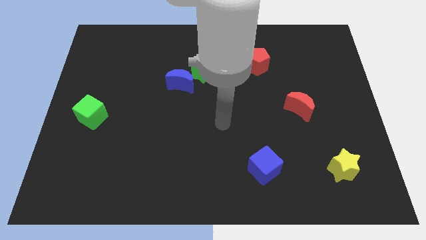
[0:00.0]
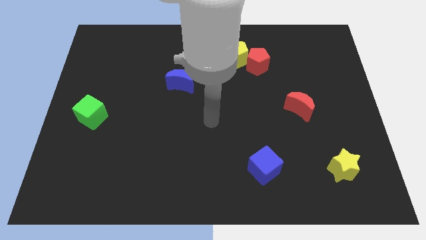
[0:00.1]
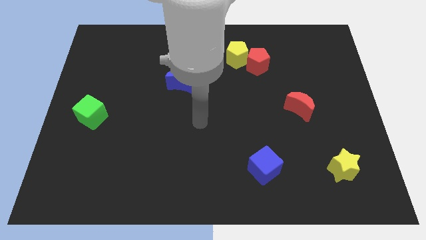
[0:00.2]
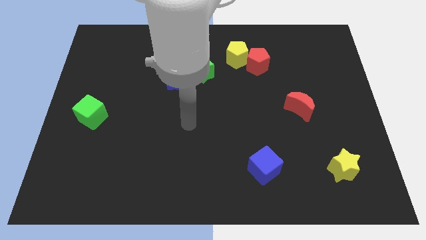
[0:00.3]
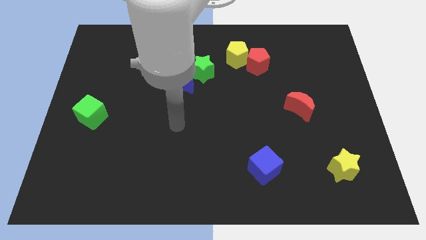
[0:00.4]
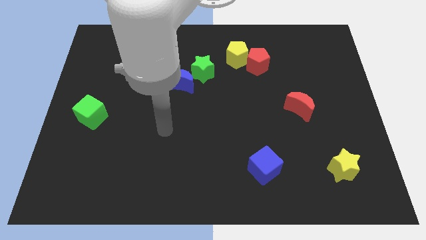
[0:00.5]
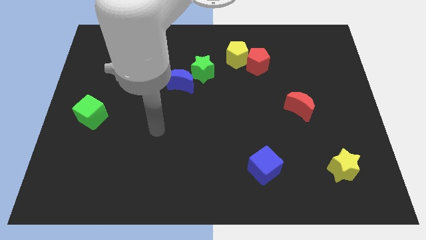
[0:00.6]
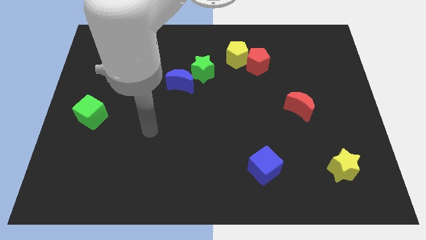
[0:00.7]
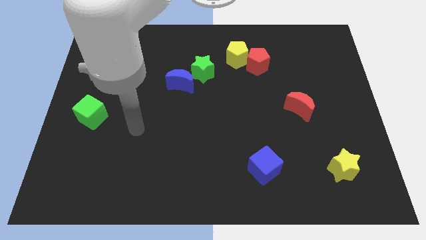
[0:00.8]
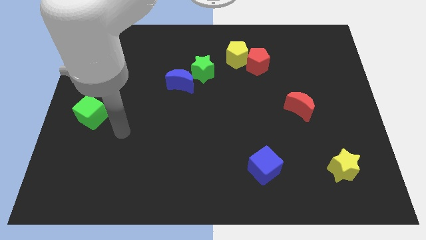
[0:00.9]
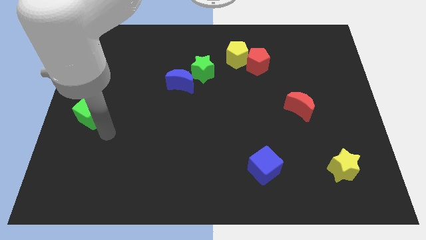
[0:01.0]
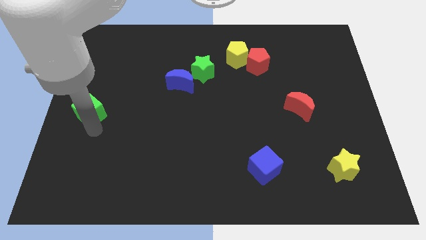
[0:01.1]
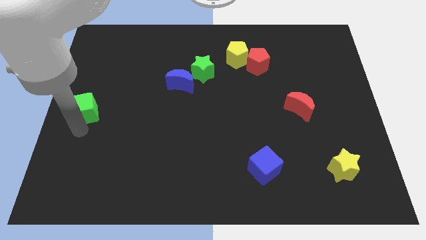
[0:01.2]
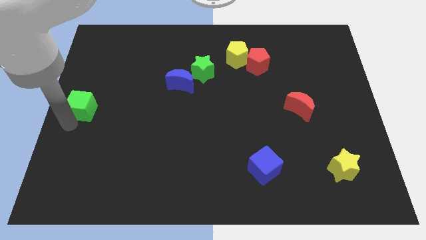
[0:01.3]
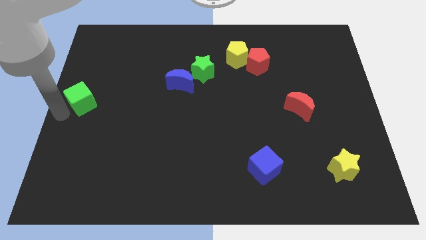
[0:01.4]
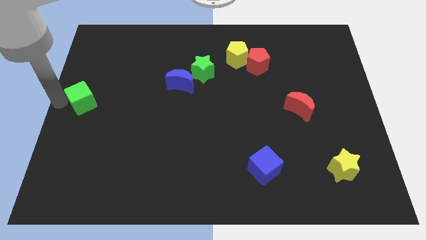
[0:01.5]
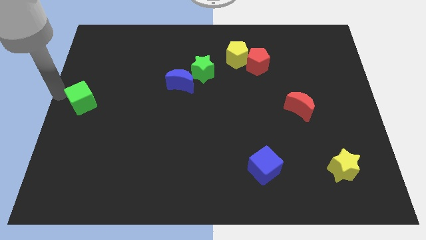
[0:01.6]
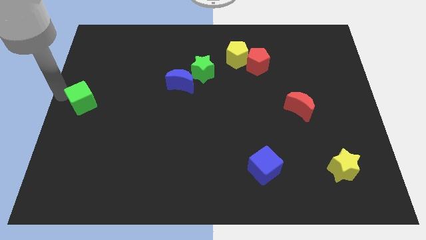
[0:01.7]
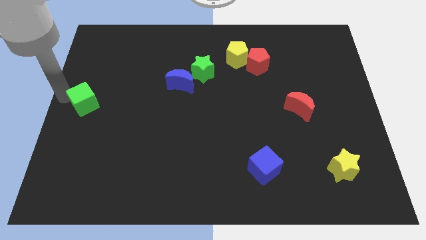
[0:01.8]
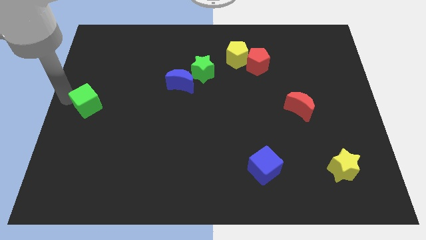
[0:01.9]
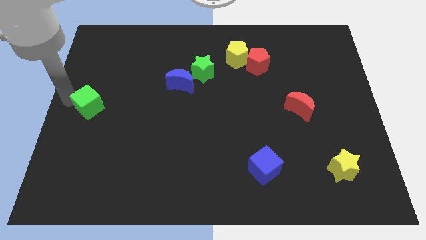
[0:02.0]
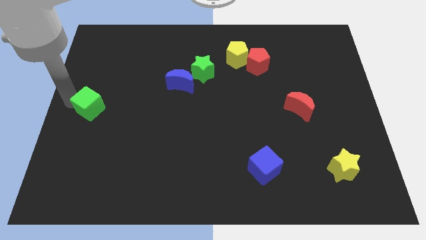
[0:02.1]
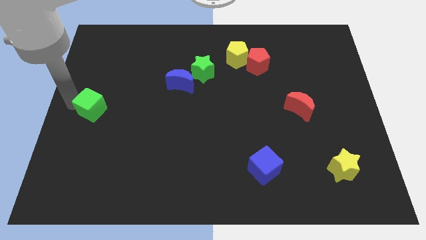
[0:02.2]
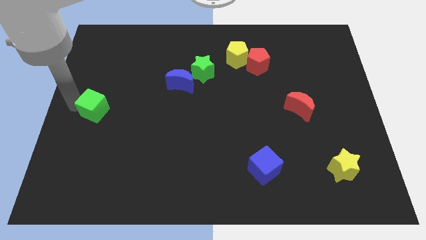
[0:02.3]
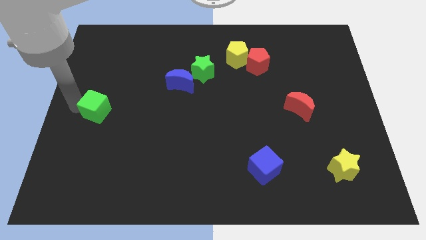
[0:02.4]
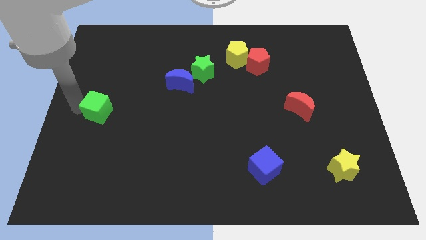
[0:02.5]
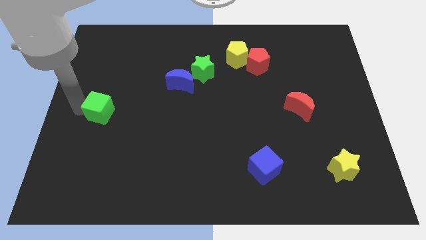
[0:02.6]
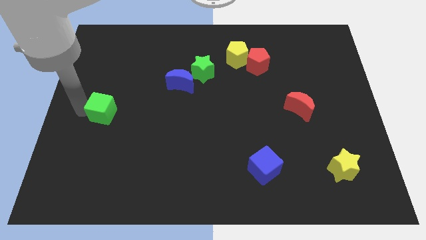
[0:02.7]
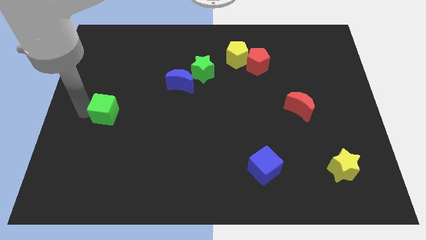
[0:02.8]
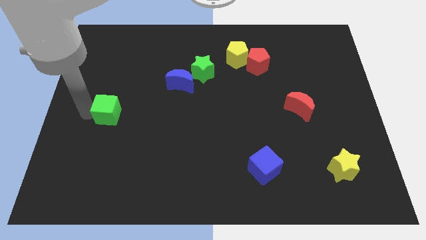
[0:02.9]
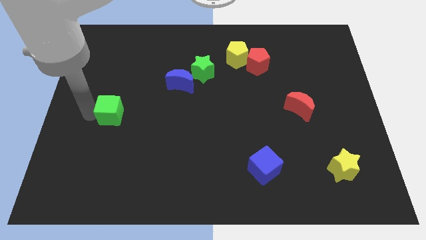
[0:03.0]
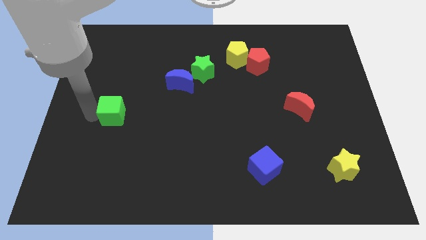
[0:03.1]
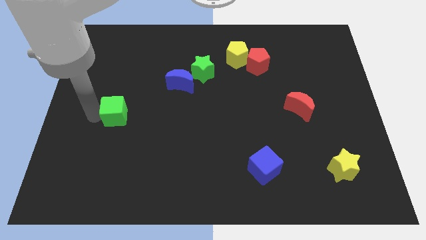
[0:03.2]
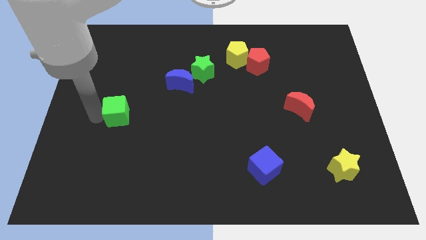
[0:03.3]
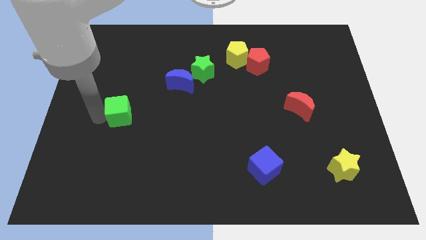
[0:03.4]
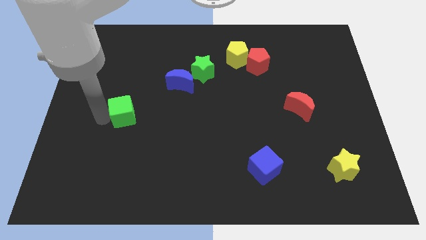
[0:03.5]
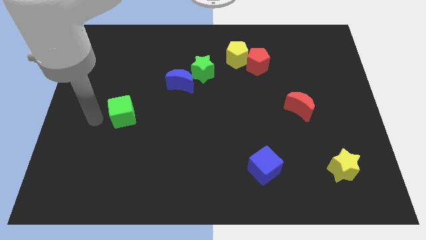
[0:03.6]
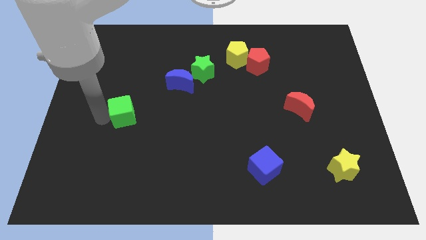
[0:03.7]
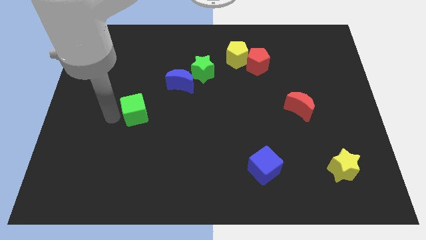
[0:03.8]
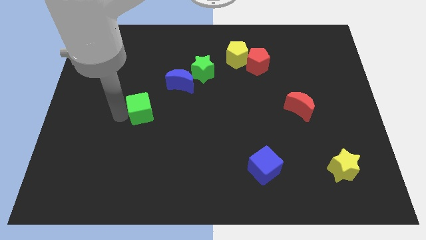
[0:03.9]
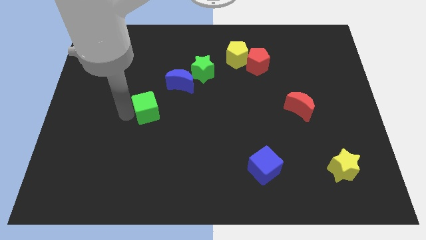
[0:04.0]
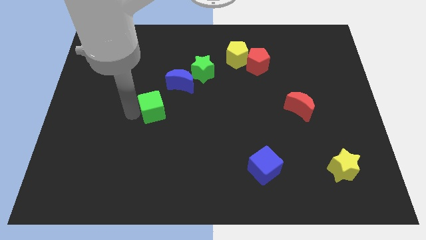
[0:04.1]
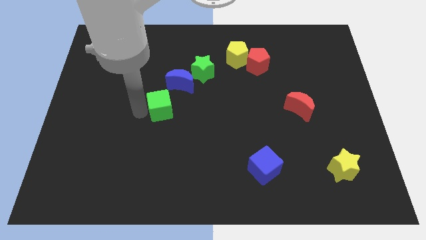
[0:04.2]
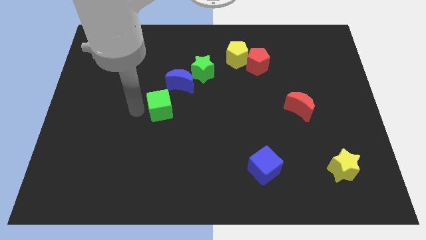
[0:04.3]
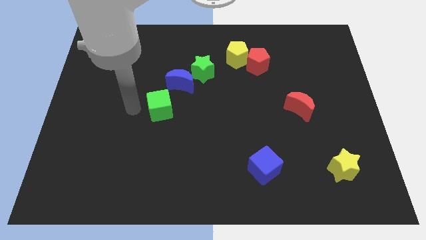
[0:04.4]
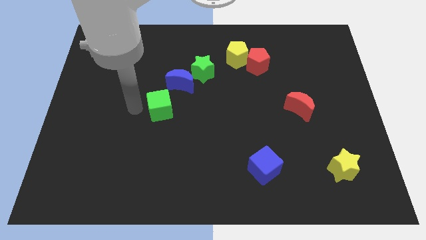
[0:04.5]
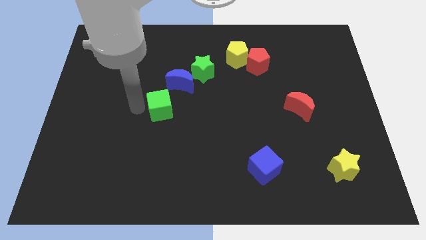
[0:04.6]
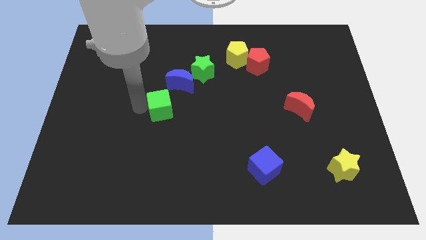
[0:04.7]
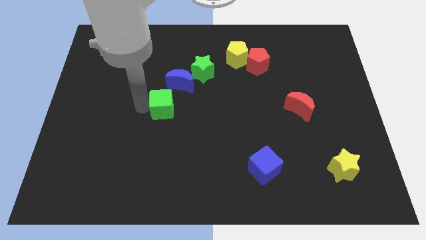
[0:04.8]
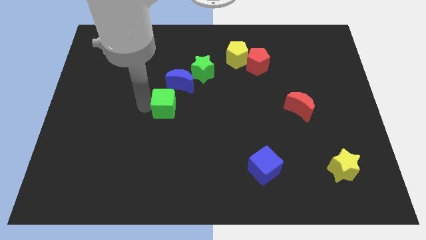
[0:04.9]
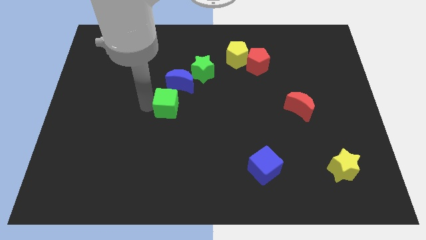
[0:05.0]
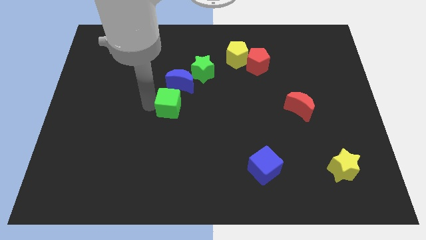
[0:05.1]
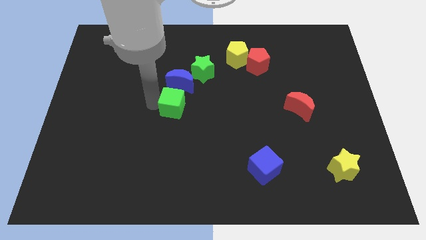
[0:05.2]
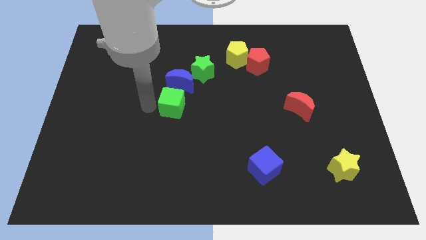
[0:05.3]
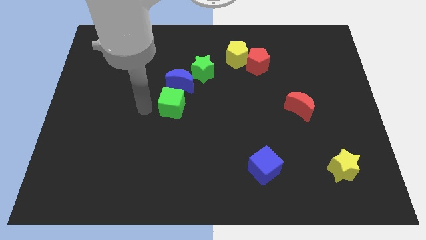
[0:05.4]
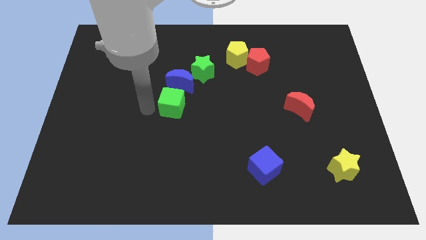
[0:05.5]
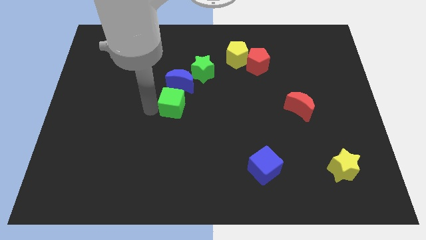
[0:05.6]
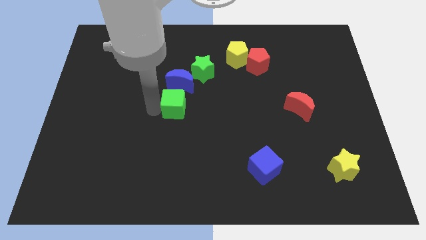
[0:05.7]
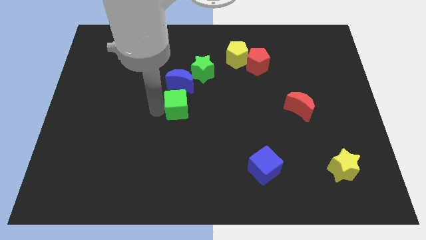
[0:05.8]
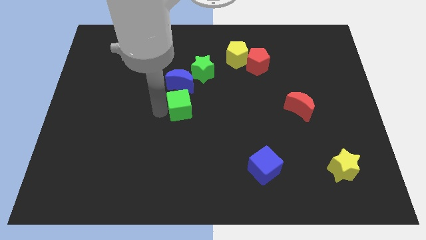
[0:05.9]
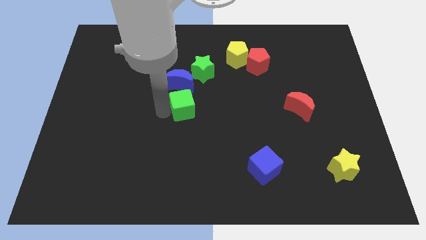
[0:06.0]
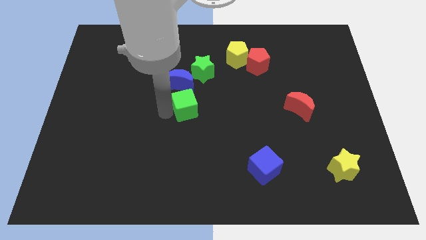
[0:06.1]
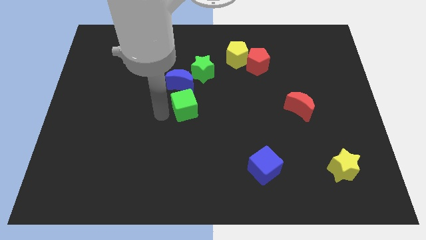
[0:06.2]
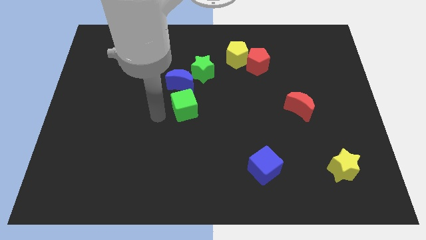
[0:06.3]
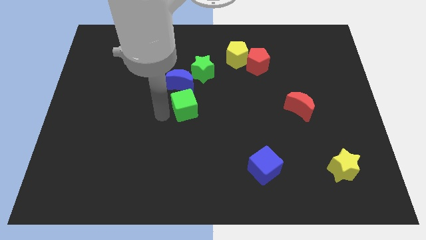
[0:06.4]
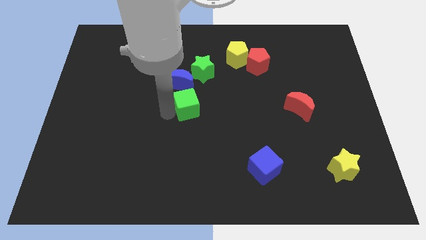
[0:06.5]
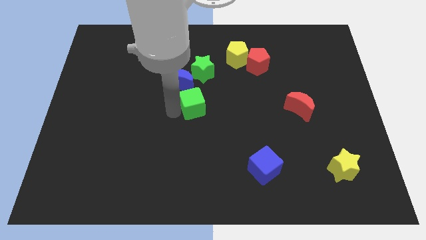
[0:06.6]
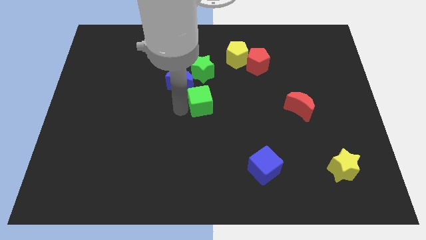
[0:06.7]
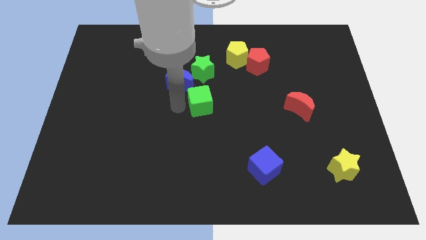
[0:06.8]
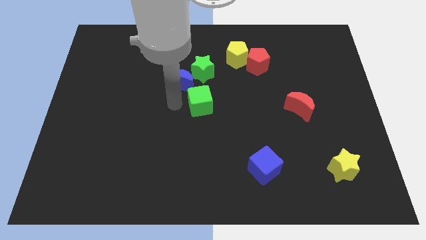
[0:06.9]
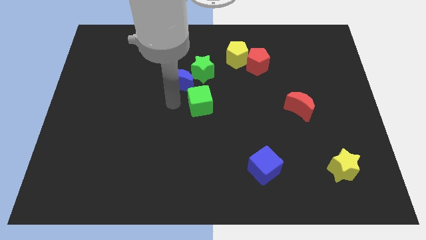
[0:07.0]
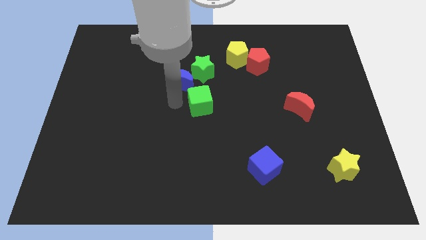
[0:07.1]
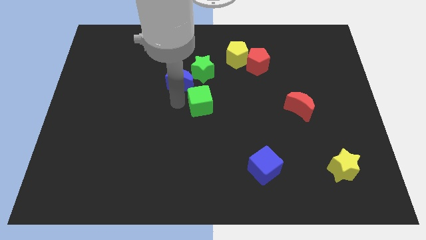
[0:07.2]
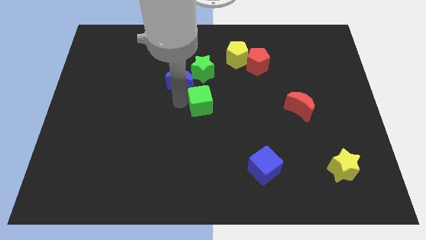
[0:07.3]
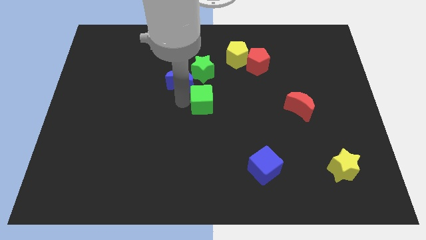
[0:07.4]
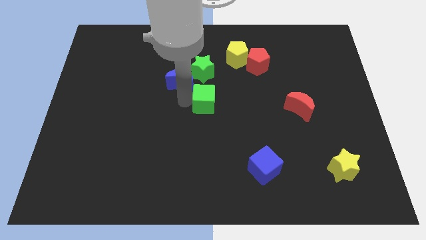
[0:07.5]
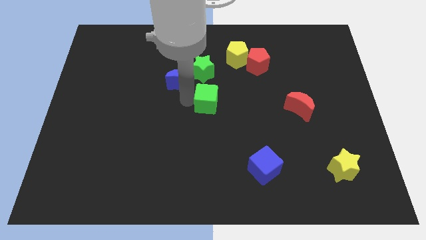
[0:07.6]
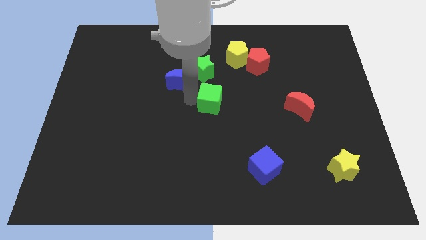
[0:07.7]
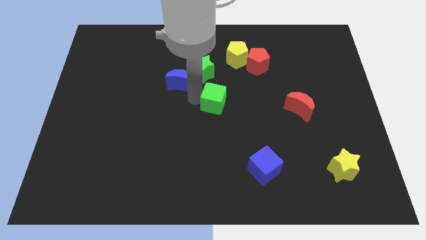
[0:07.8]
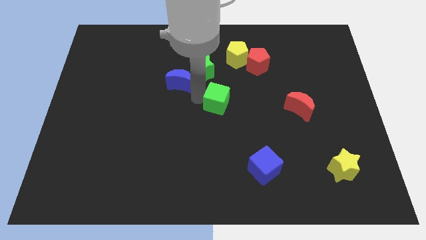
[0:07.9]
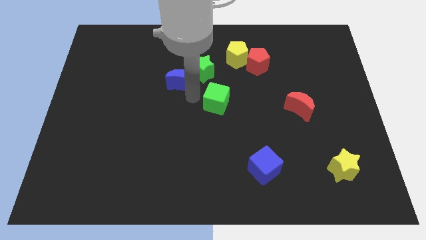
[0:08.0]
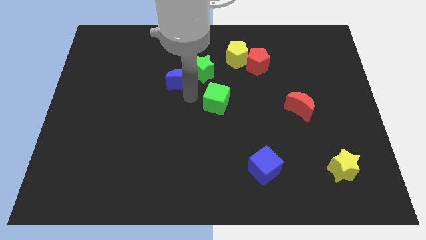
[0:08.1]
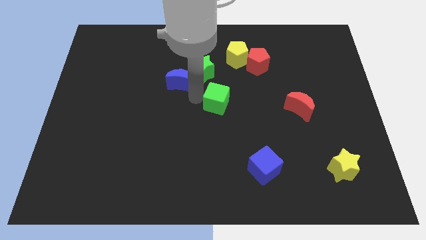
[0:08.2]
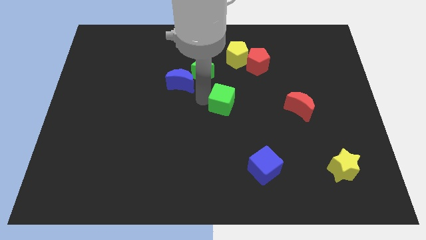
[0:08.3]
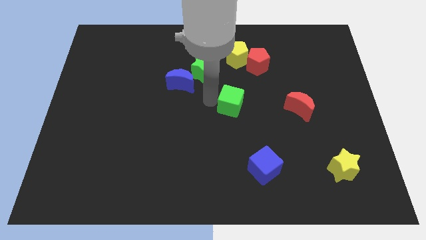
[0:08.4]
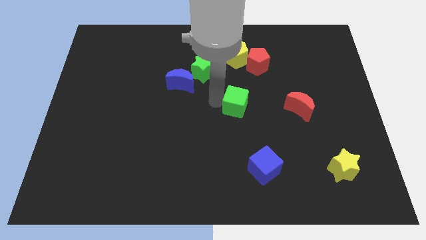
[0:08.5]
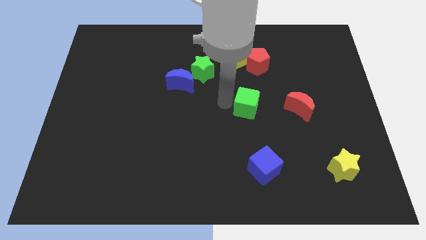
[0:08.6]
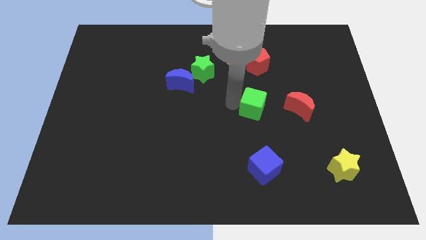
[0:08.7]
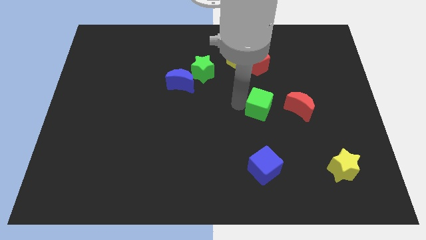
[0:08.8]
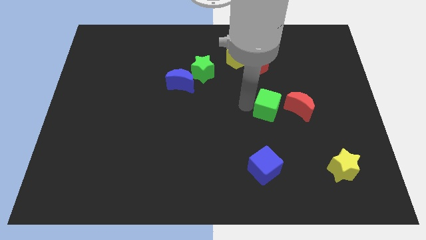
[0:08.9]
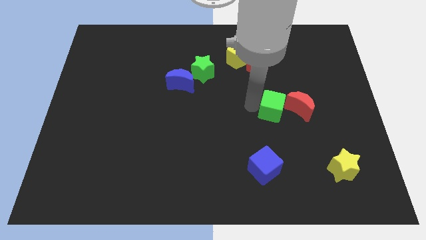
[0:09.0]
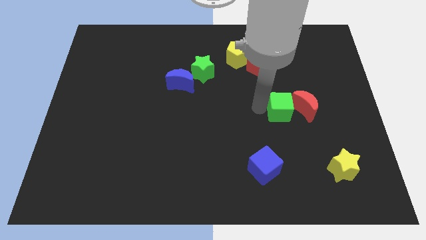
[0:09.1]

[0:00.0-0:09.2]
move the green cube towards the red moon
